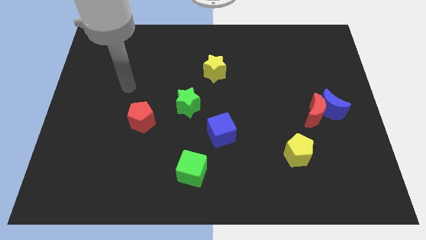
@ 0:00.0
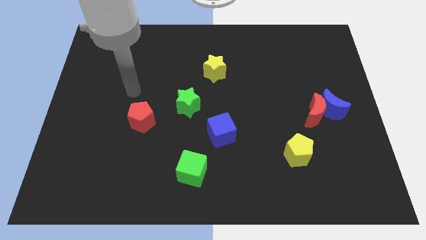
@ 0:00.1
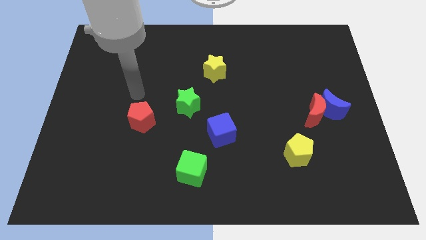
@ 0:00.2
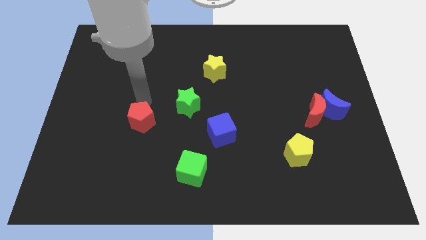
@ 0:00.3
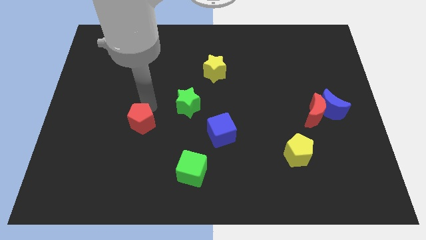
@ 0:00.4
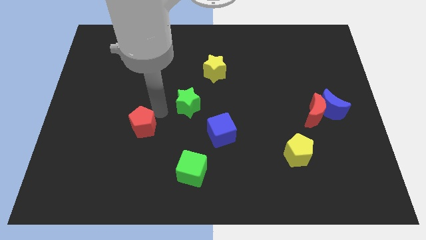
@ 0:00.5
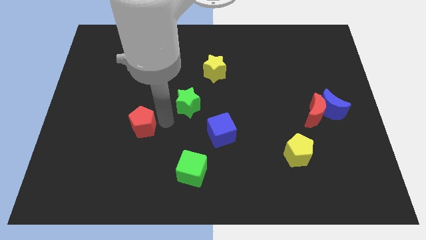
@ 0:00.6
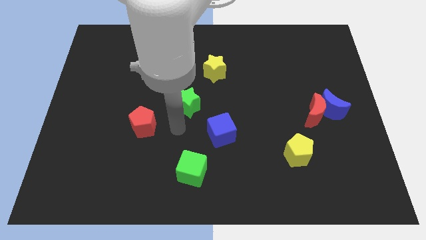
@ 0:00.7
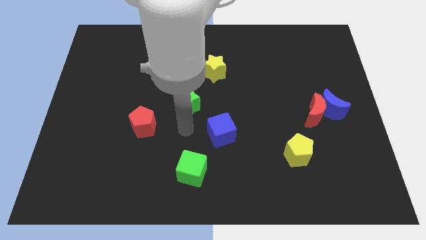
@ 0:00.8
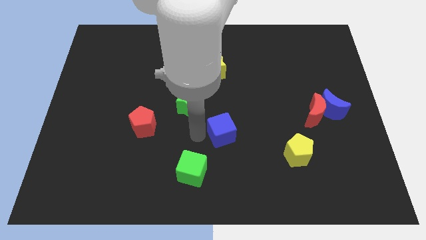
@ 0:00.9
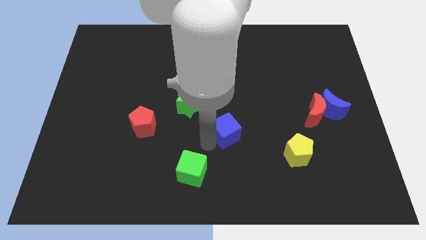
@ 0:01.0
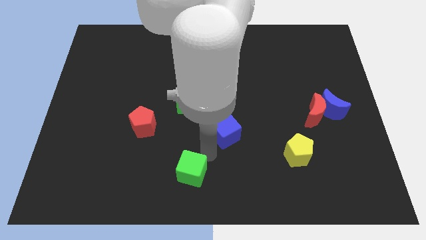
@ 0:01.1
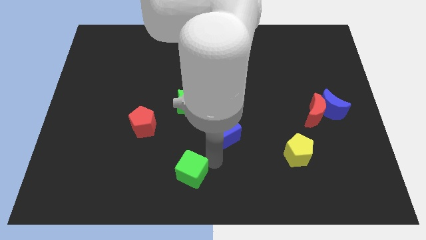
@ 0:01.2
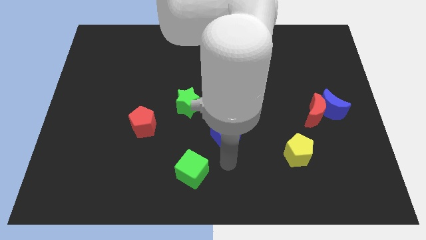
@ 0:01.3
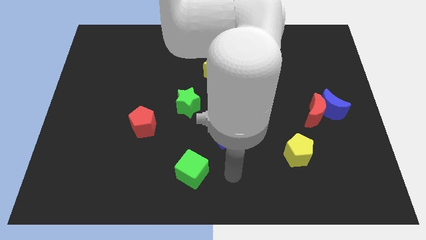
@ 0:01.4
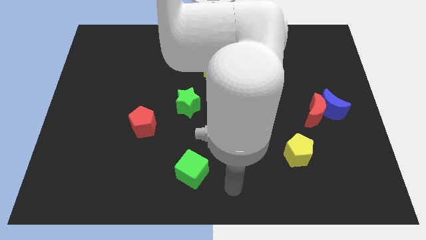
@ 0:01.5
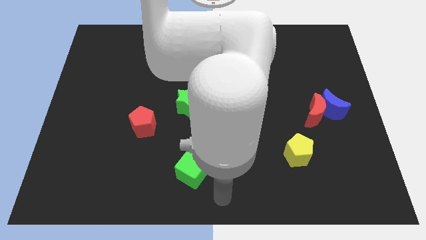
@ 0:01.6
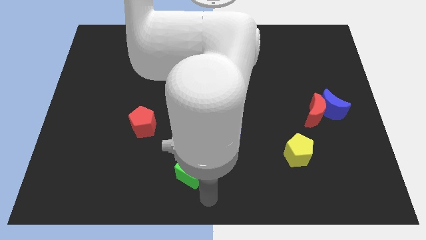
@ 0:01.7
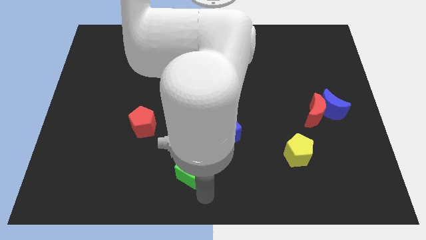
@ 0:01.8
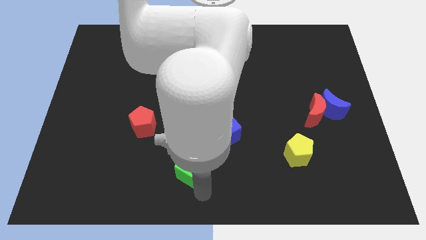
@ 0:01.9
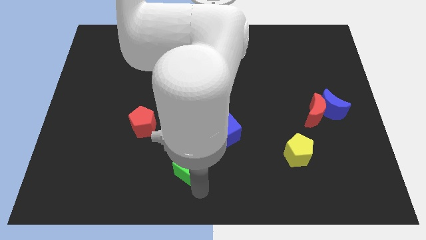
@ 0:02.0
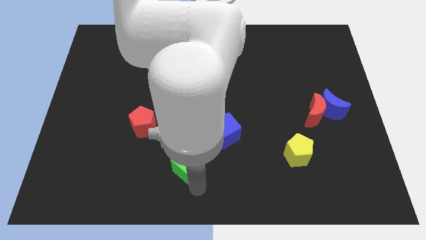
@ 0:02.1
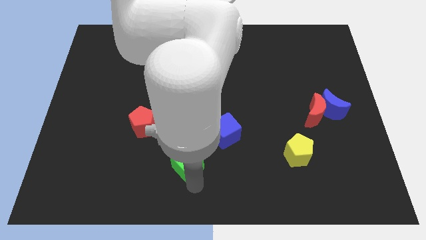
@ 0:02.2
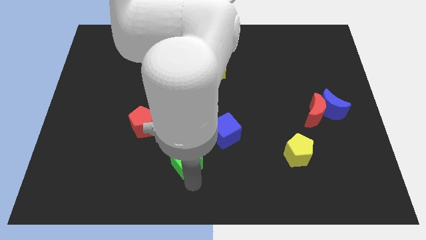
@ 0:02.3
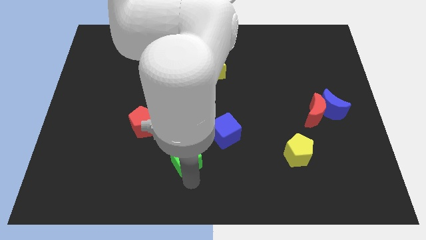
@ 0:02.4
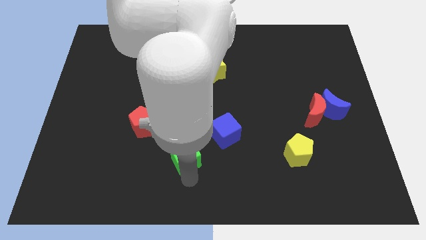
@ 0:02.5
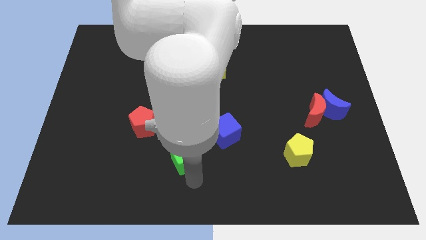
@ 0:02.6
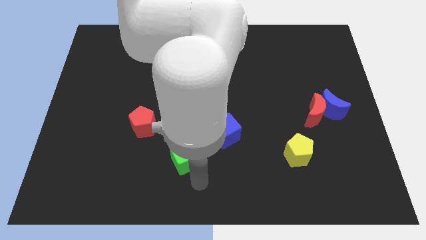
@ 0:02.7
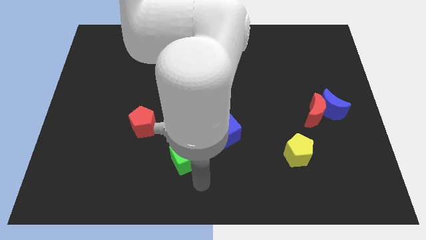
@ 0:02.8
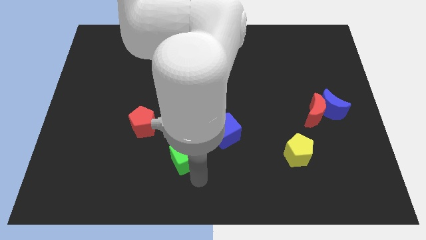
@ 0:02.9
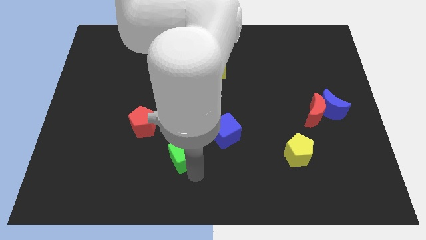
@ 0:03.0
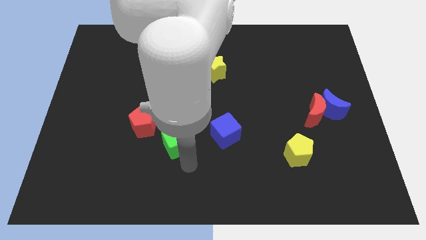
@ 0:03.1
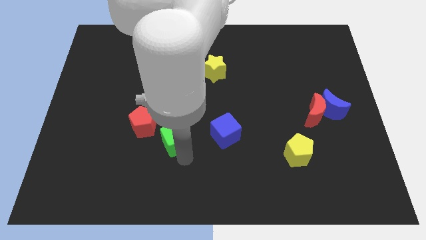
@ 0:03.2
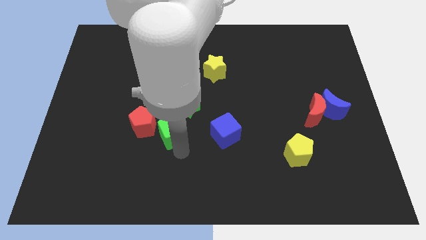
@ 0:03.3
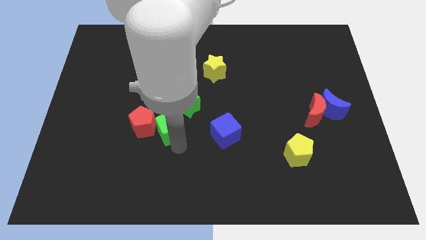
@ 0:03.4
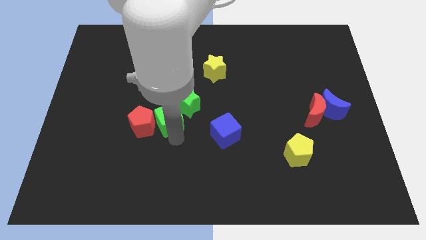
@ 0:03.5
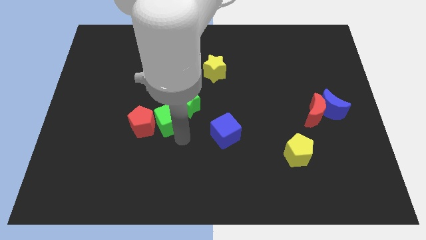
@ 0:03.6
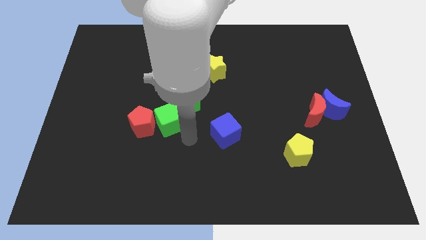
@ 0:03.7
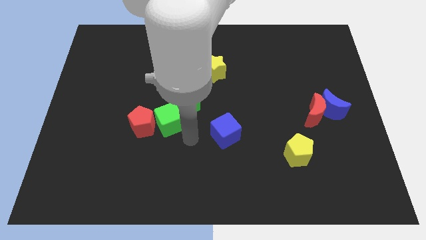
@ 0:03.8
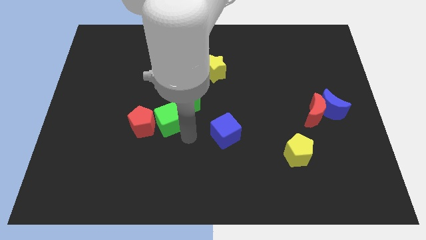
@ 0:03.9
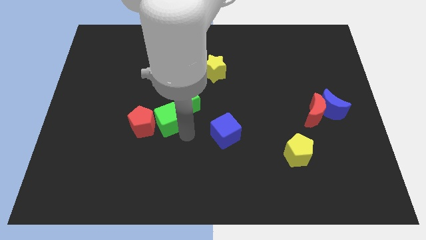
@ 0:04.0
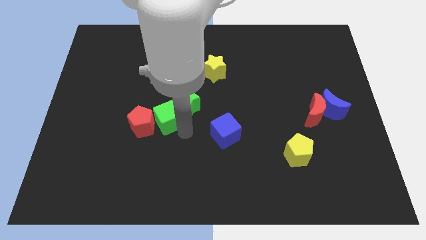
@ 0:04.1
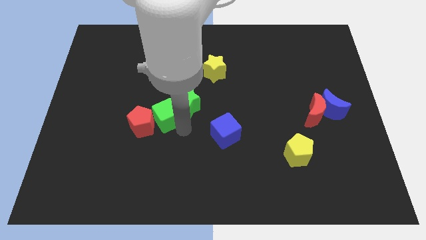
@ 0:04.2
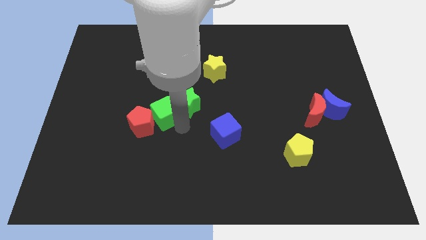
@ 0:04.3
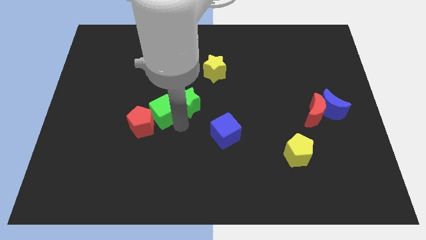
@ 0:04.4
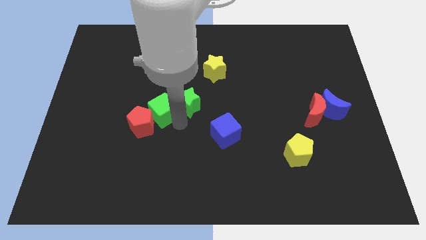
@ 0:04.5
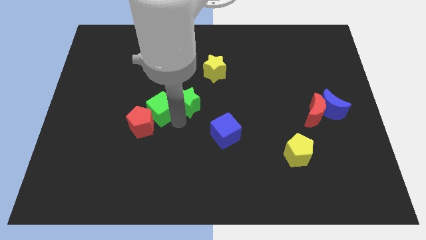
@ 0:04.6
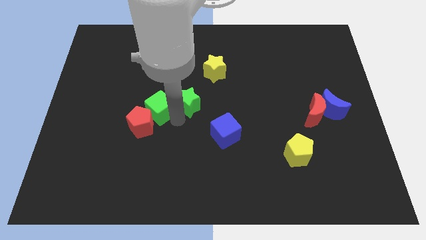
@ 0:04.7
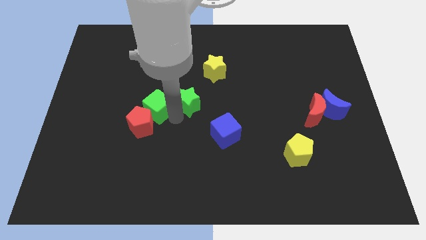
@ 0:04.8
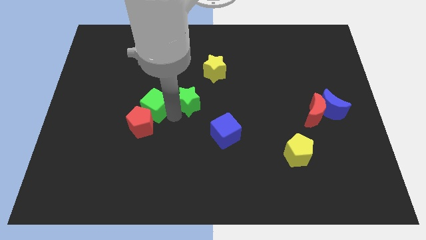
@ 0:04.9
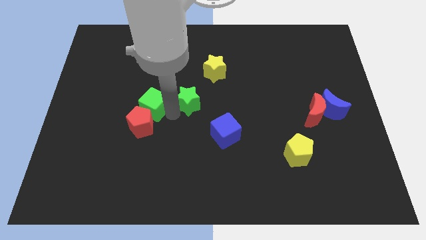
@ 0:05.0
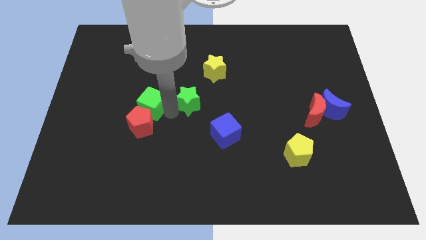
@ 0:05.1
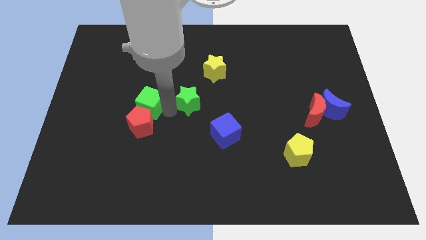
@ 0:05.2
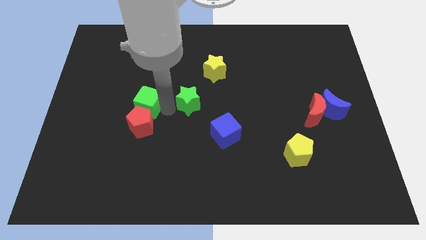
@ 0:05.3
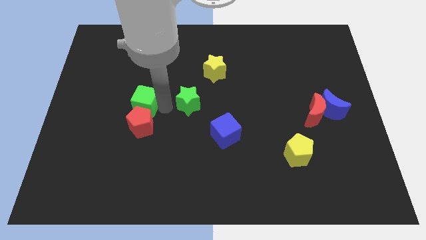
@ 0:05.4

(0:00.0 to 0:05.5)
move the green cube up and then to the left

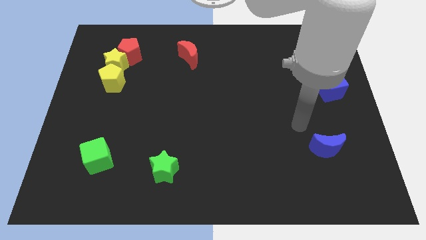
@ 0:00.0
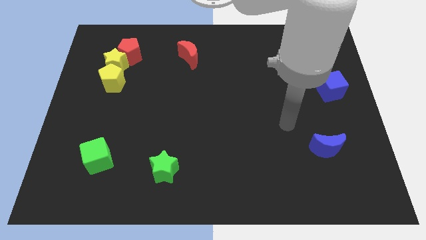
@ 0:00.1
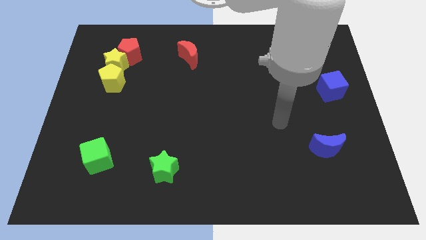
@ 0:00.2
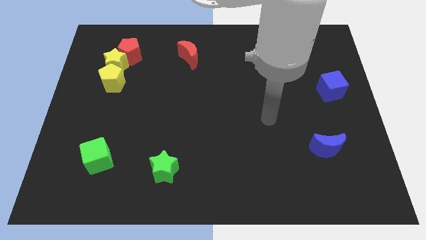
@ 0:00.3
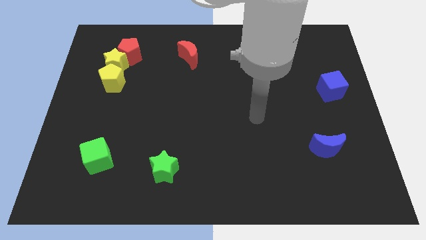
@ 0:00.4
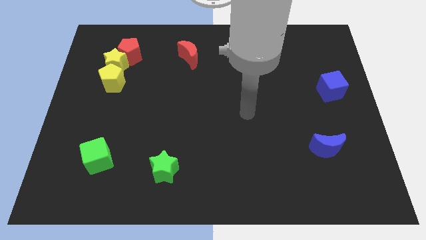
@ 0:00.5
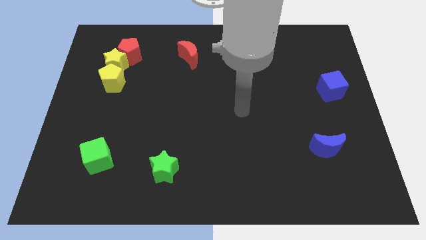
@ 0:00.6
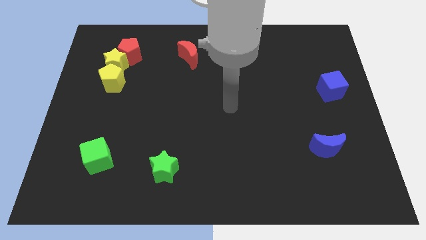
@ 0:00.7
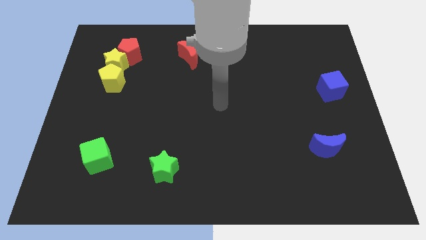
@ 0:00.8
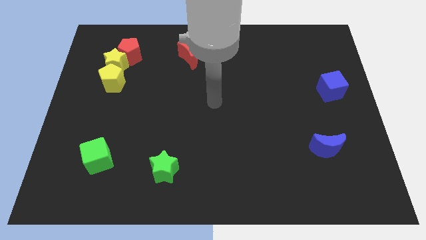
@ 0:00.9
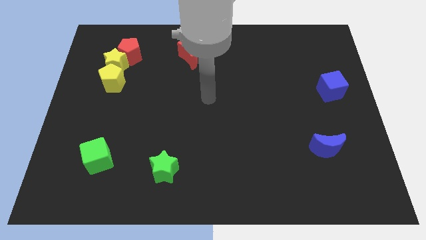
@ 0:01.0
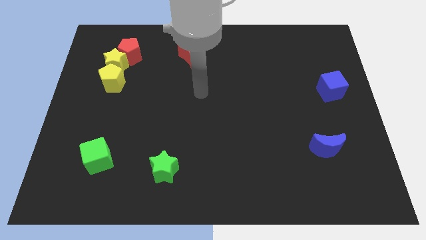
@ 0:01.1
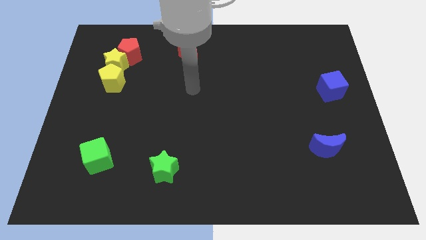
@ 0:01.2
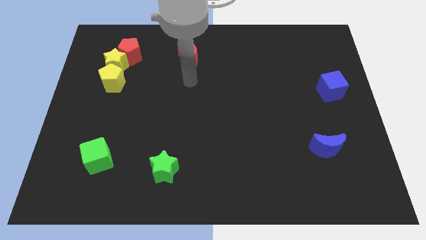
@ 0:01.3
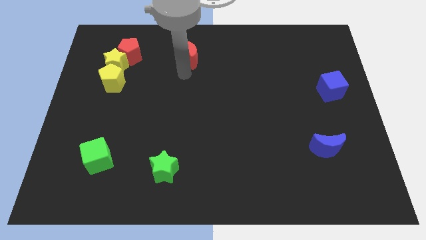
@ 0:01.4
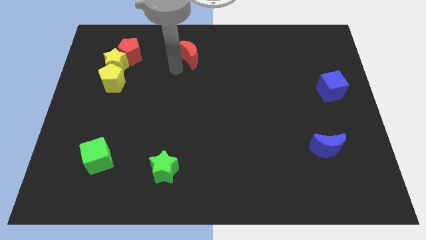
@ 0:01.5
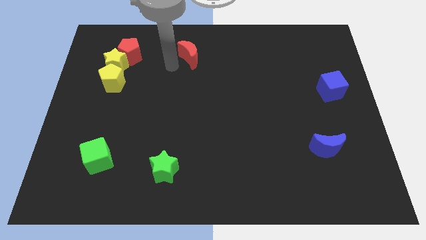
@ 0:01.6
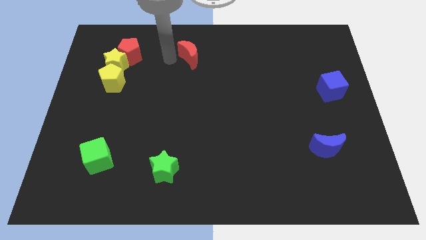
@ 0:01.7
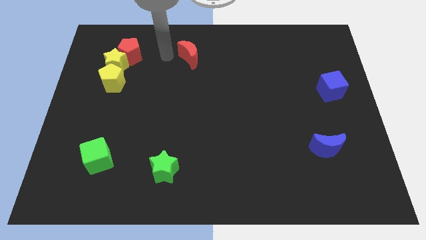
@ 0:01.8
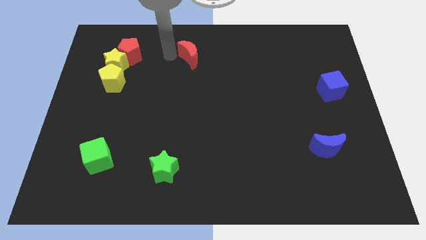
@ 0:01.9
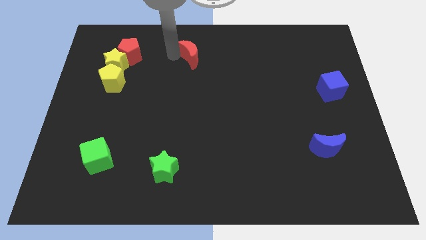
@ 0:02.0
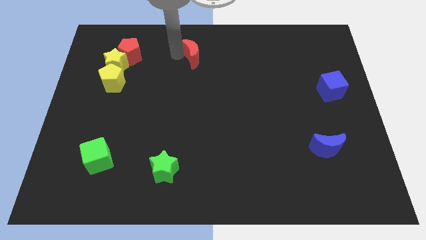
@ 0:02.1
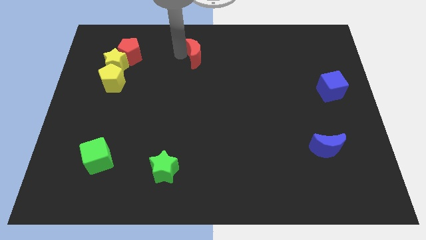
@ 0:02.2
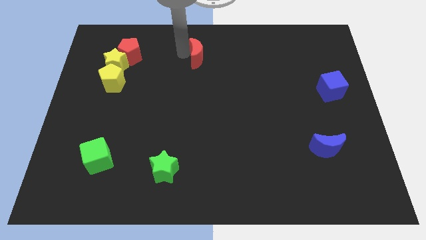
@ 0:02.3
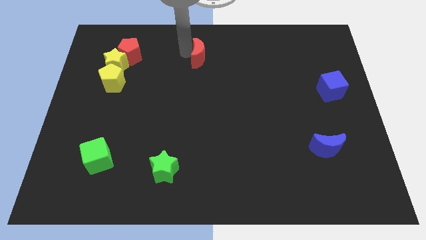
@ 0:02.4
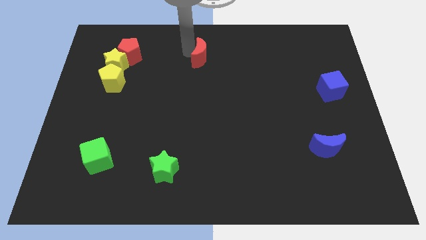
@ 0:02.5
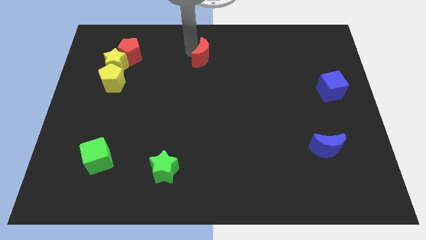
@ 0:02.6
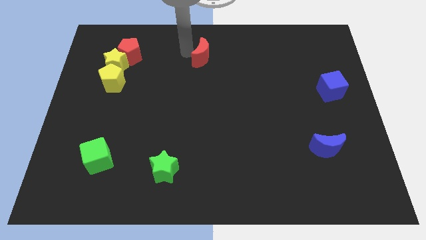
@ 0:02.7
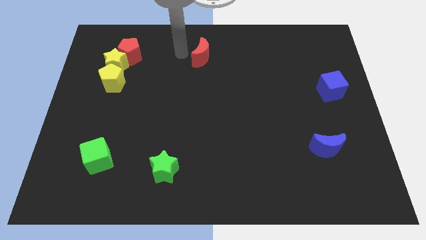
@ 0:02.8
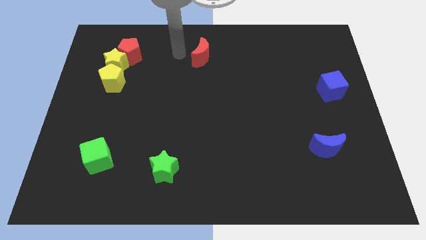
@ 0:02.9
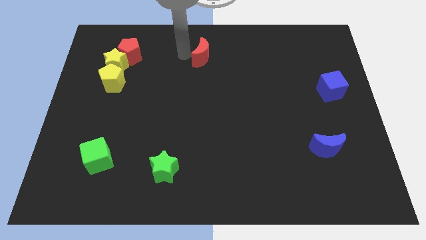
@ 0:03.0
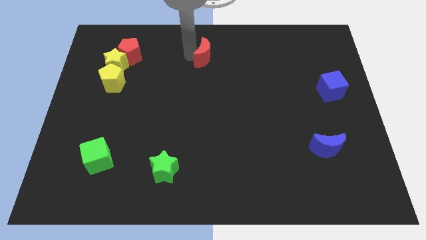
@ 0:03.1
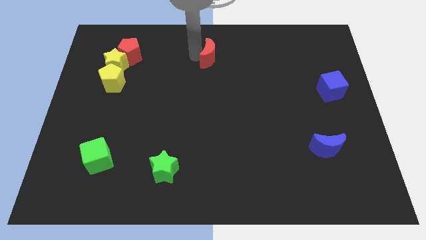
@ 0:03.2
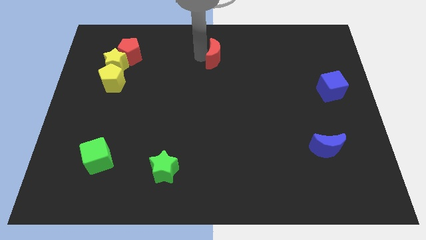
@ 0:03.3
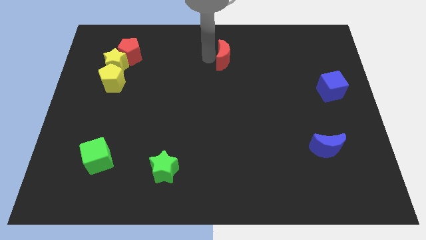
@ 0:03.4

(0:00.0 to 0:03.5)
slide the red moon to the right a bit
